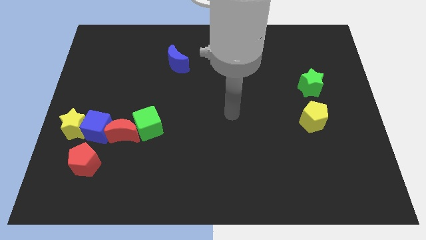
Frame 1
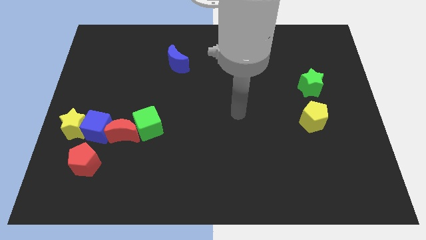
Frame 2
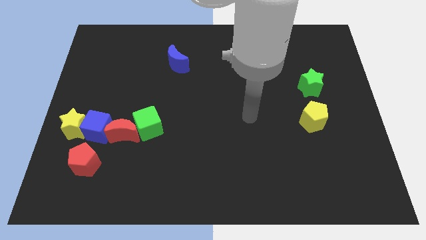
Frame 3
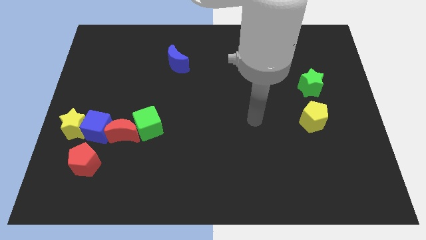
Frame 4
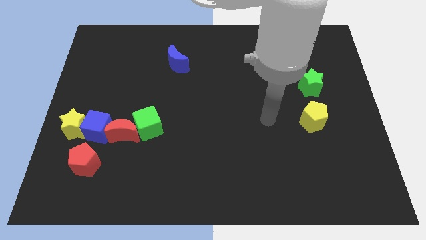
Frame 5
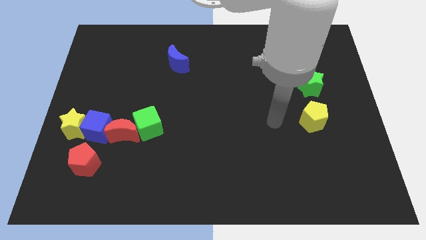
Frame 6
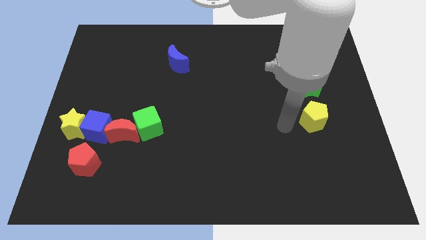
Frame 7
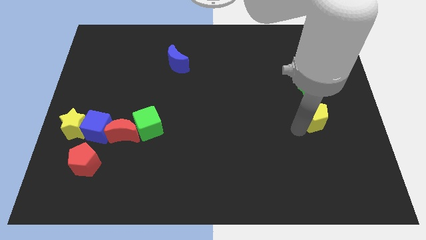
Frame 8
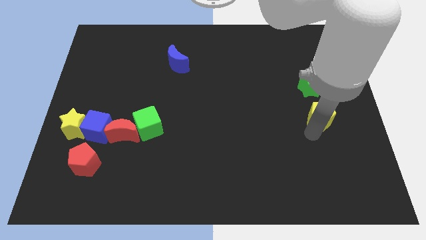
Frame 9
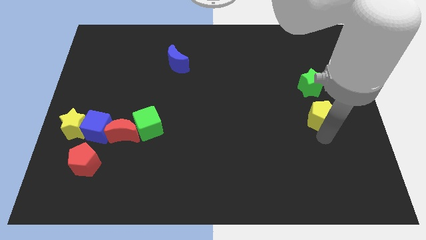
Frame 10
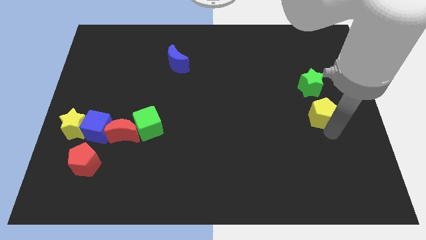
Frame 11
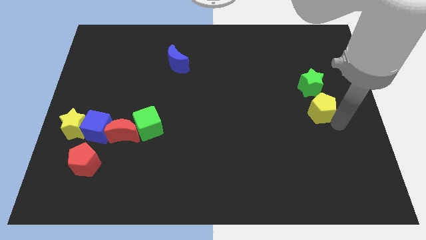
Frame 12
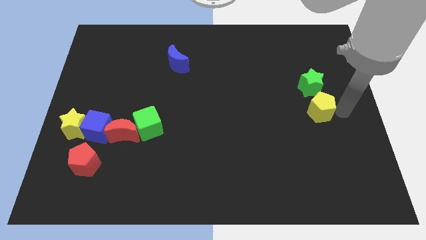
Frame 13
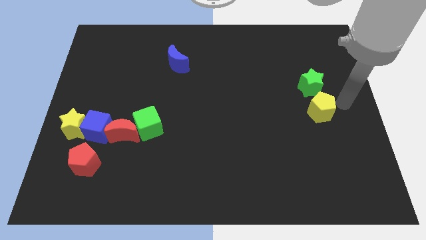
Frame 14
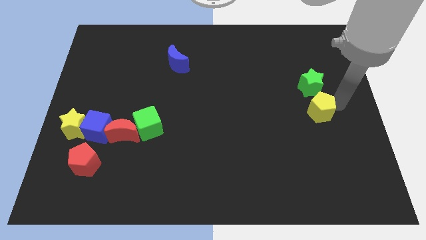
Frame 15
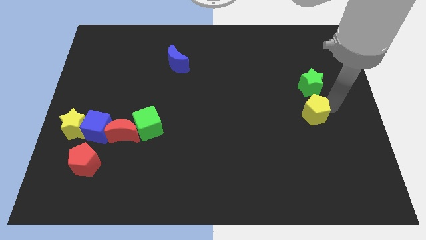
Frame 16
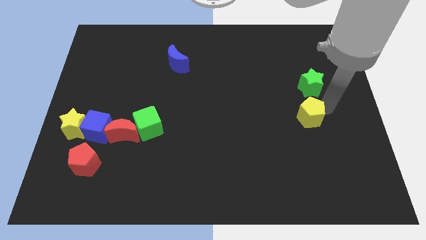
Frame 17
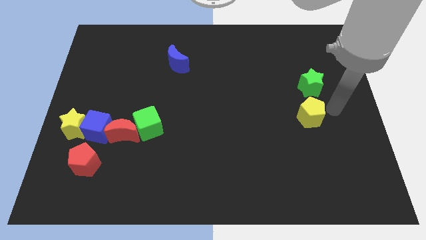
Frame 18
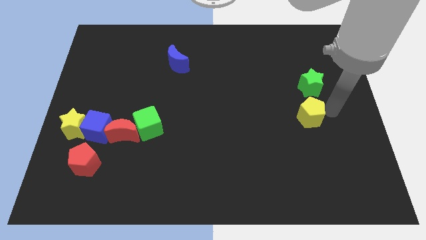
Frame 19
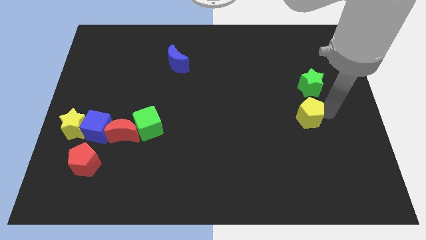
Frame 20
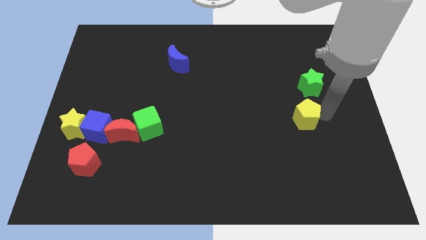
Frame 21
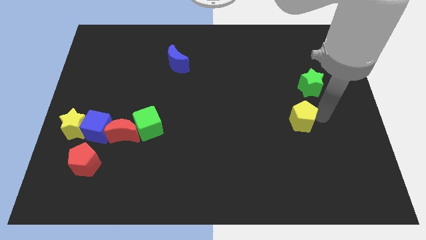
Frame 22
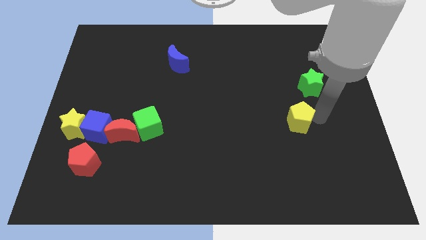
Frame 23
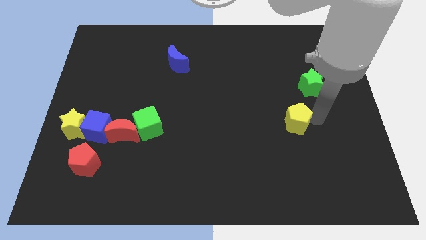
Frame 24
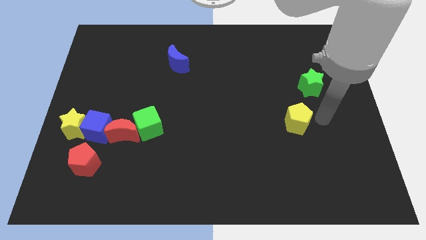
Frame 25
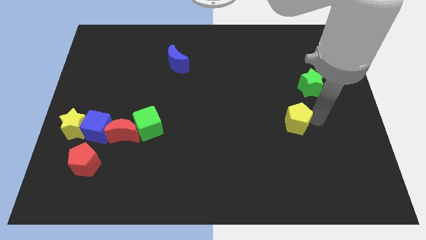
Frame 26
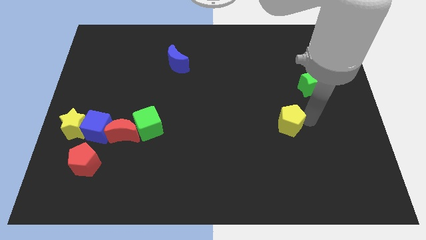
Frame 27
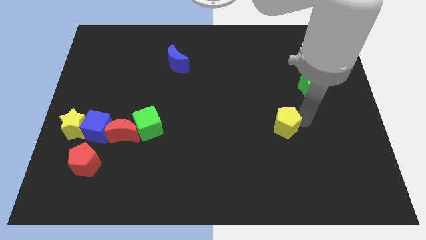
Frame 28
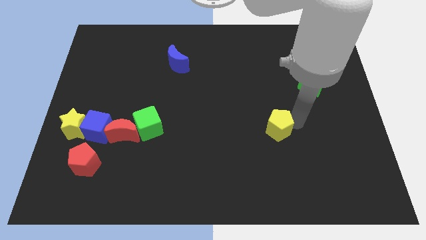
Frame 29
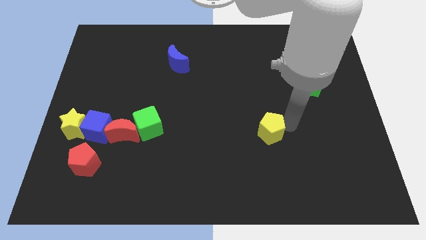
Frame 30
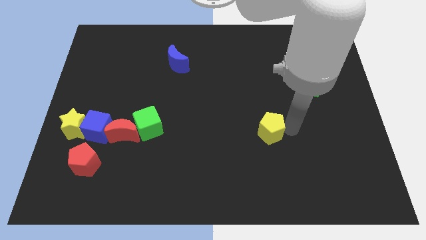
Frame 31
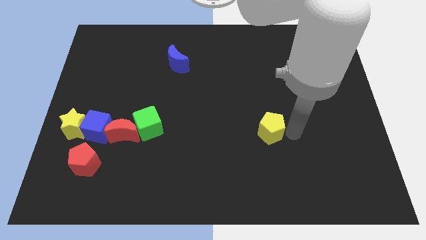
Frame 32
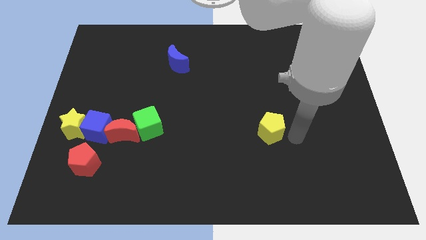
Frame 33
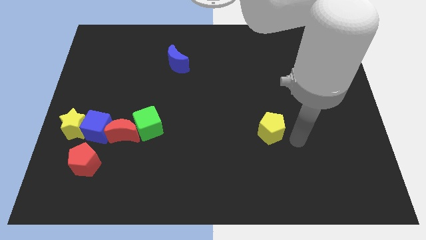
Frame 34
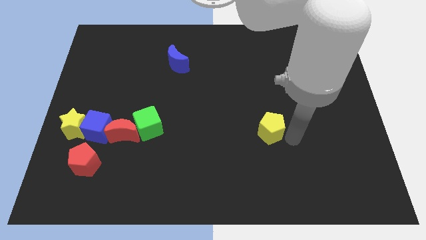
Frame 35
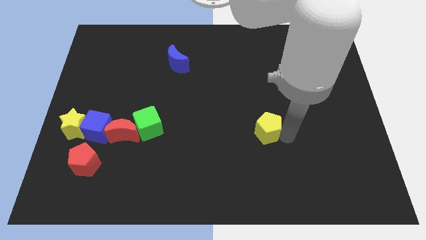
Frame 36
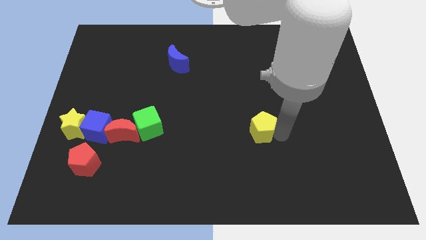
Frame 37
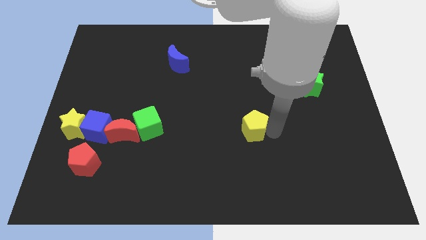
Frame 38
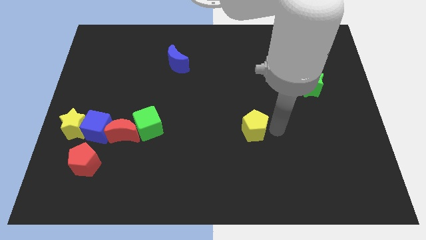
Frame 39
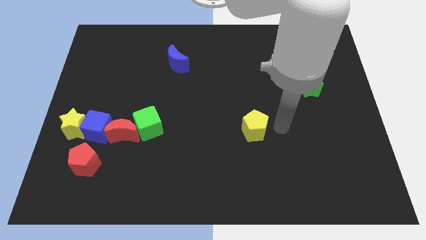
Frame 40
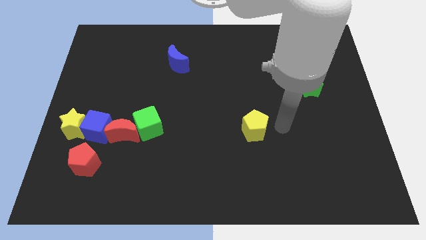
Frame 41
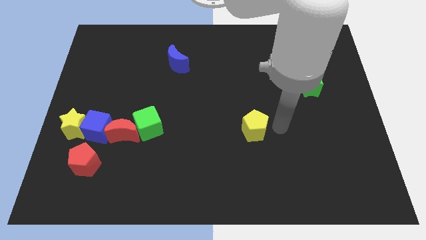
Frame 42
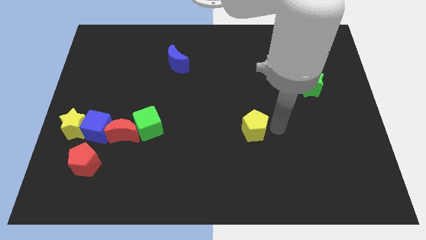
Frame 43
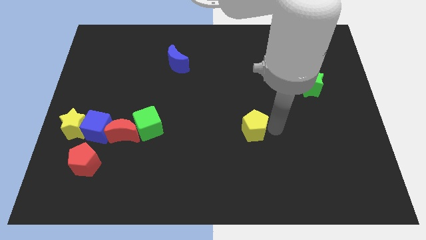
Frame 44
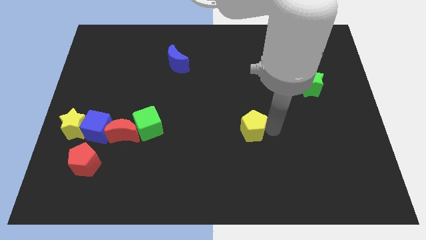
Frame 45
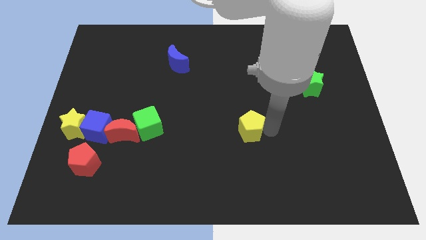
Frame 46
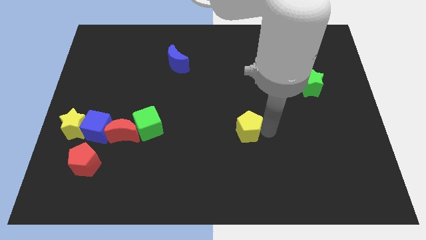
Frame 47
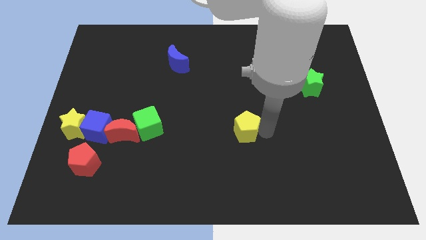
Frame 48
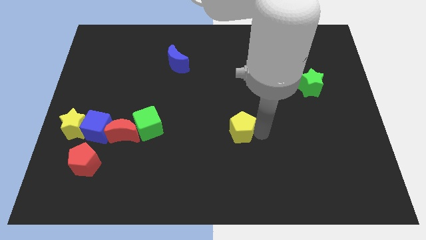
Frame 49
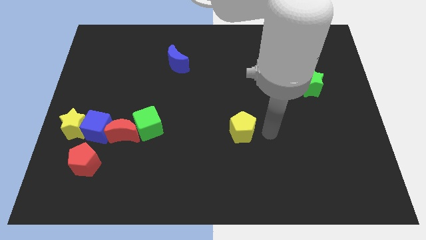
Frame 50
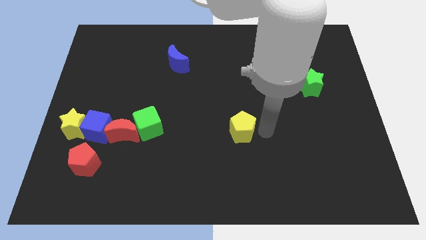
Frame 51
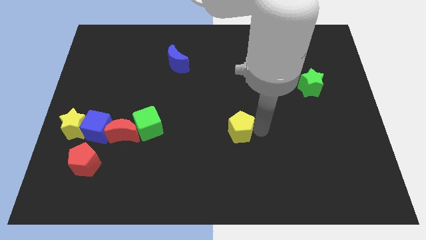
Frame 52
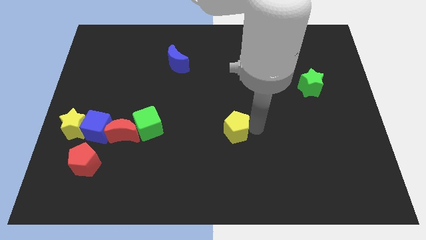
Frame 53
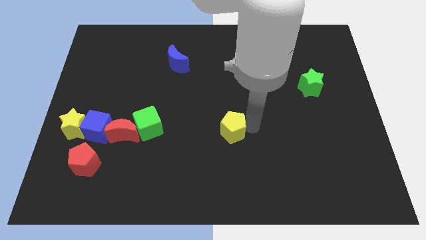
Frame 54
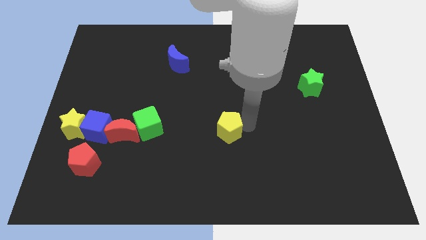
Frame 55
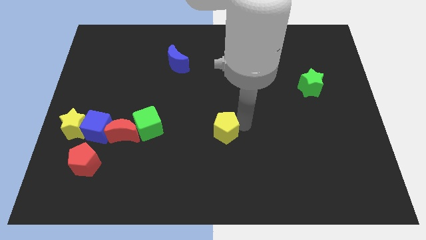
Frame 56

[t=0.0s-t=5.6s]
slide the yellow pentagon left

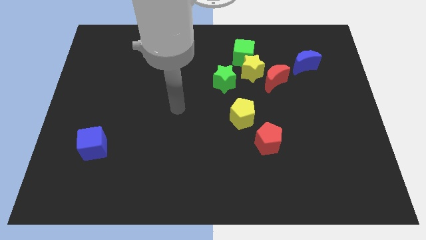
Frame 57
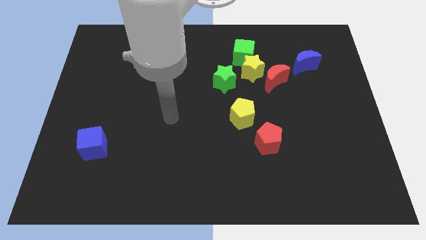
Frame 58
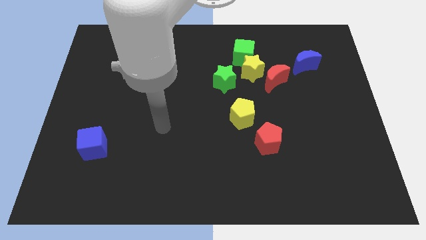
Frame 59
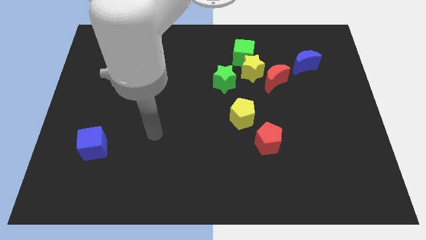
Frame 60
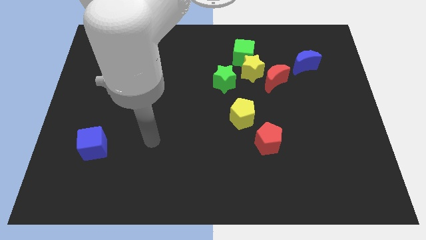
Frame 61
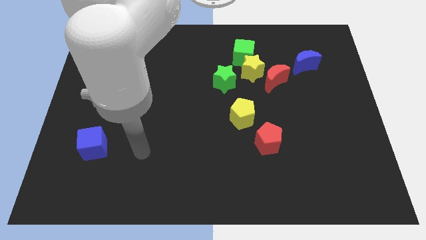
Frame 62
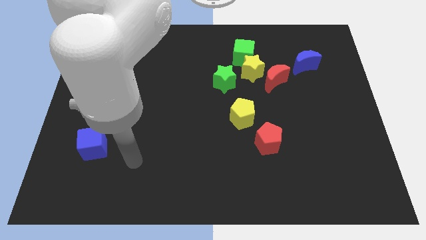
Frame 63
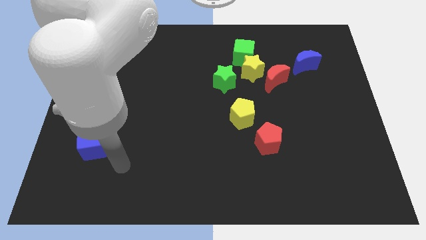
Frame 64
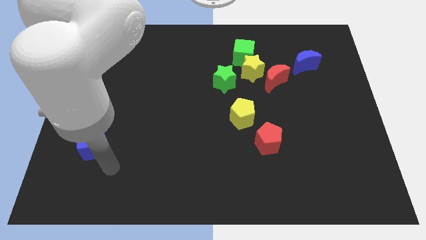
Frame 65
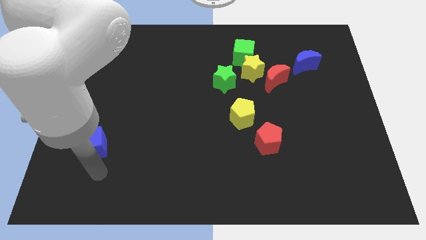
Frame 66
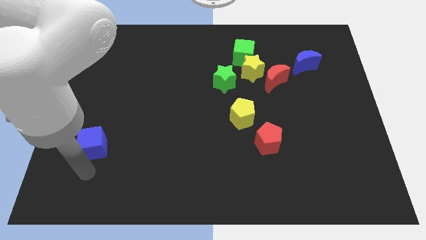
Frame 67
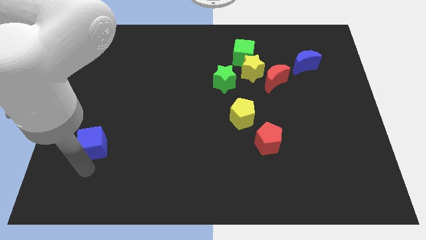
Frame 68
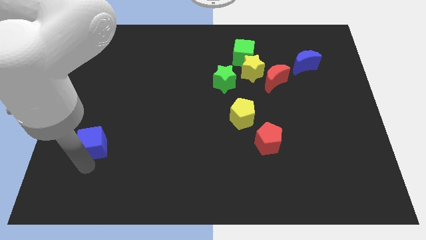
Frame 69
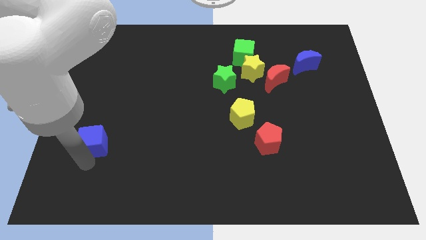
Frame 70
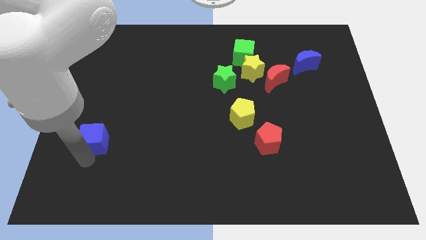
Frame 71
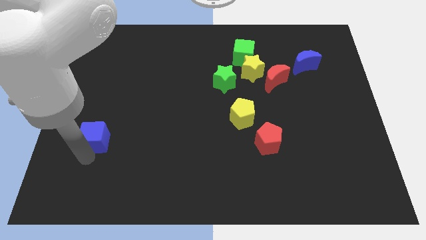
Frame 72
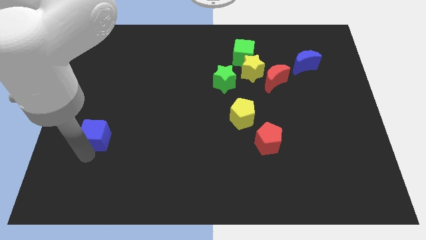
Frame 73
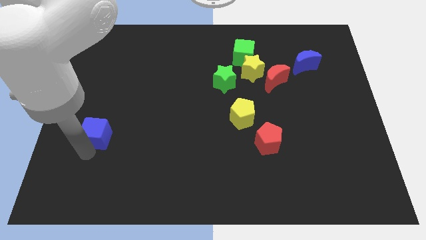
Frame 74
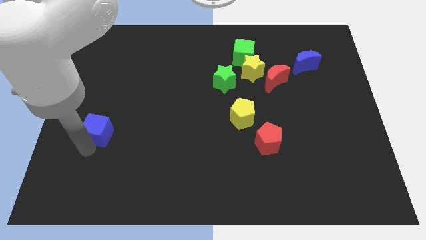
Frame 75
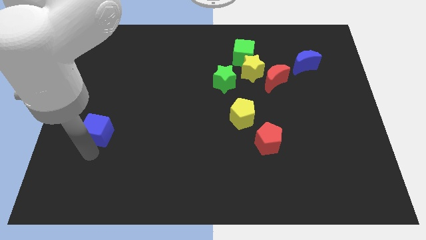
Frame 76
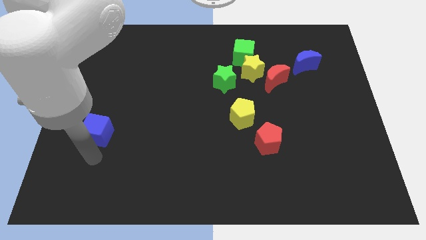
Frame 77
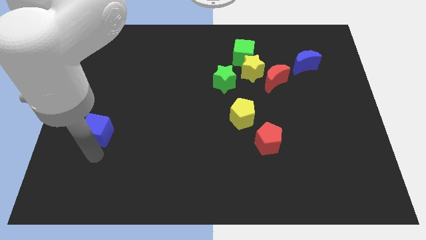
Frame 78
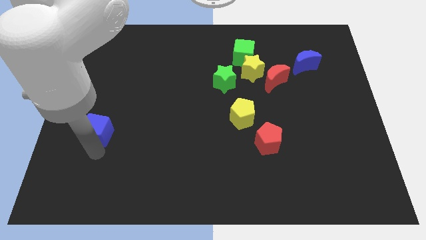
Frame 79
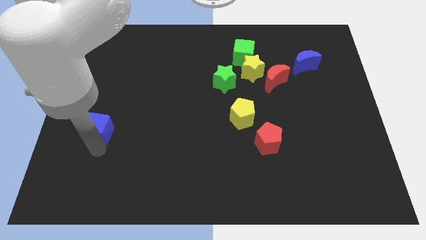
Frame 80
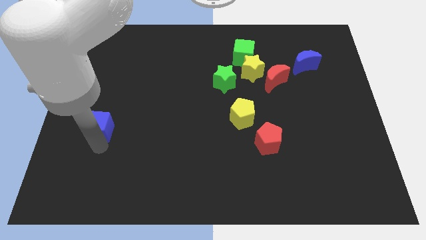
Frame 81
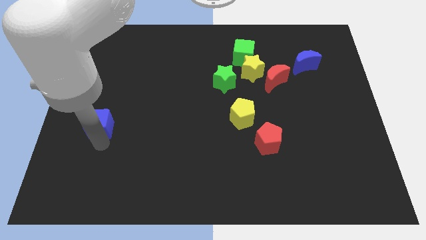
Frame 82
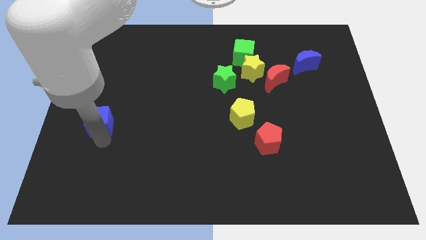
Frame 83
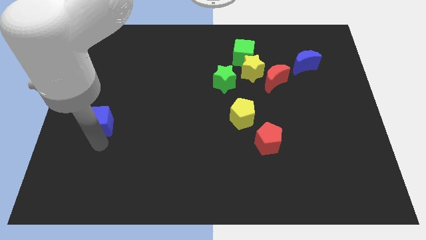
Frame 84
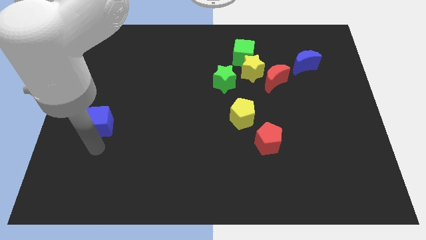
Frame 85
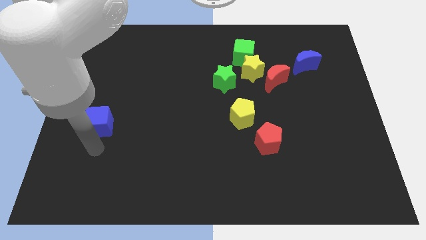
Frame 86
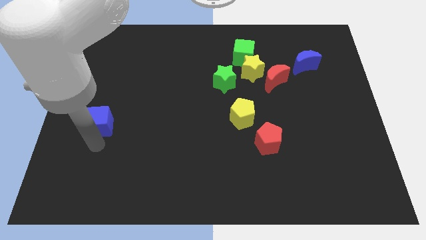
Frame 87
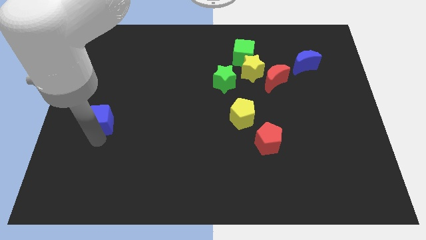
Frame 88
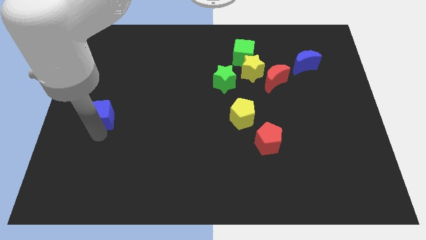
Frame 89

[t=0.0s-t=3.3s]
move the blue cube up slightly
